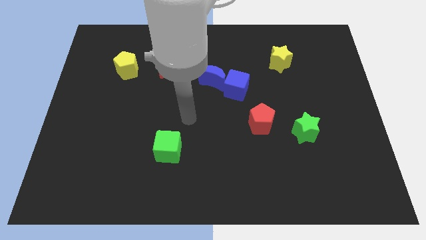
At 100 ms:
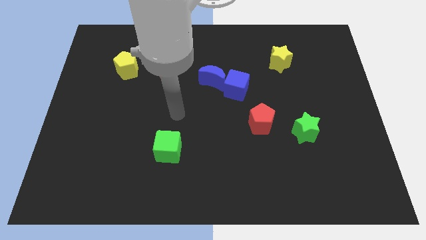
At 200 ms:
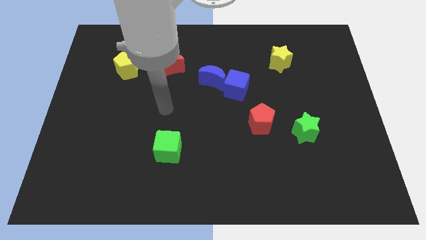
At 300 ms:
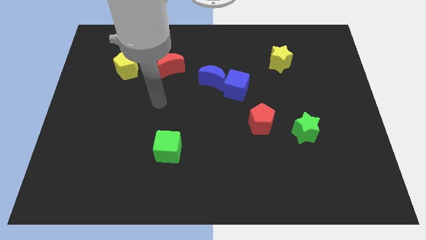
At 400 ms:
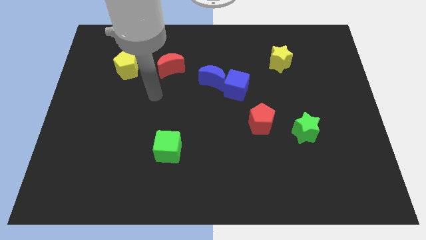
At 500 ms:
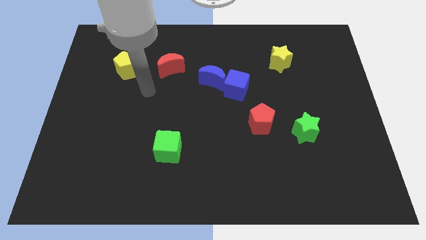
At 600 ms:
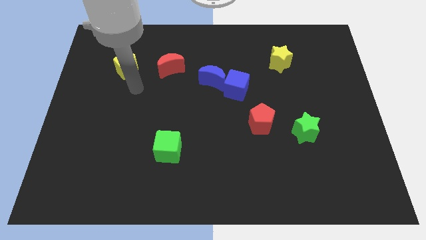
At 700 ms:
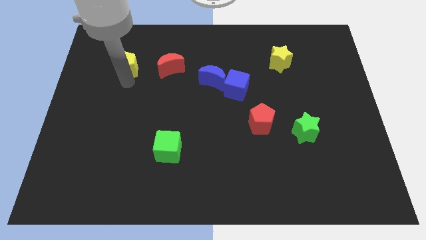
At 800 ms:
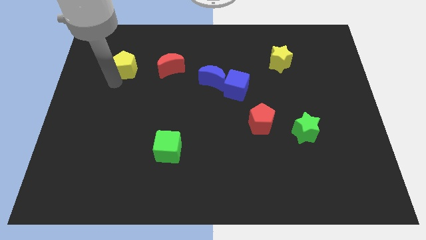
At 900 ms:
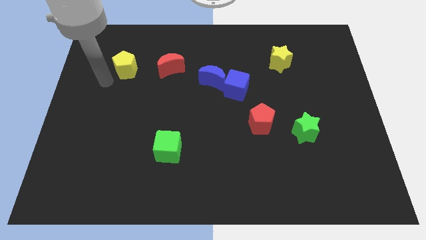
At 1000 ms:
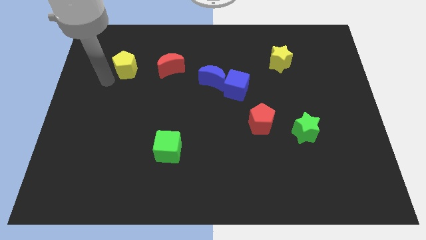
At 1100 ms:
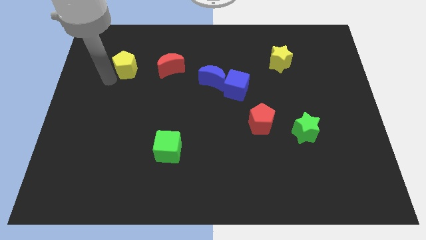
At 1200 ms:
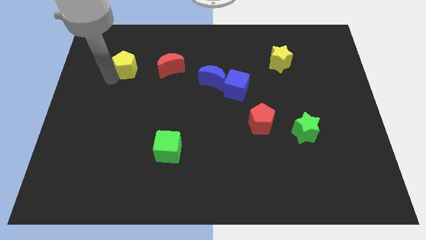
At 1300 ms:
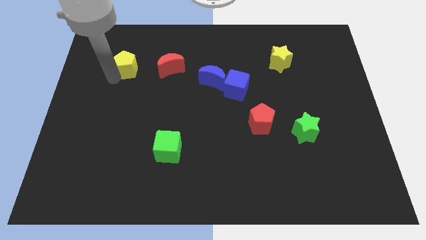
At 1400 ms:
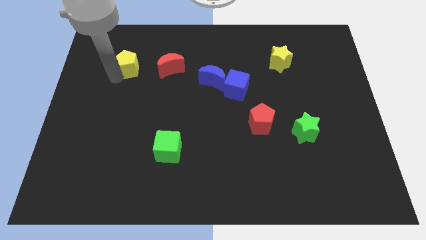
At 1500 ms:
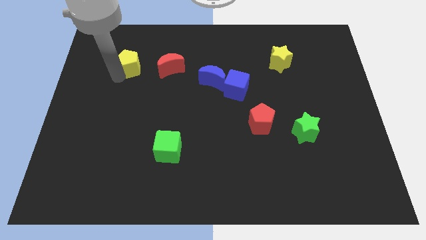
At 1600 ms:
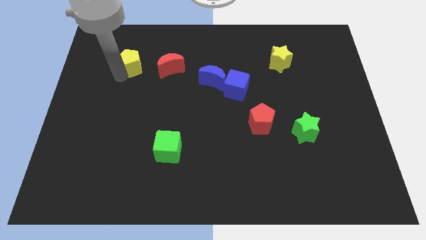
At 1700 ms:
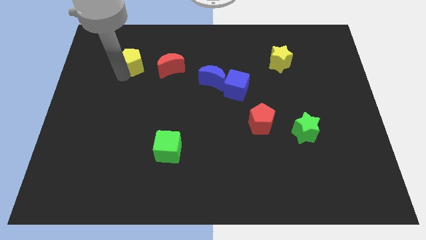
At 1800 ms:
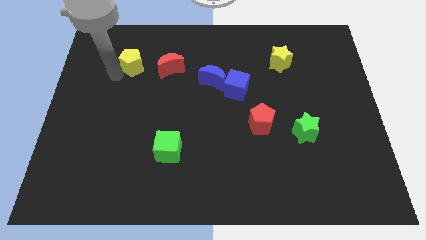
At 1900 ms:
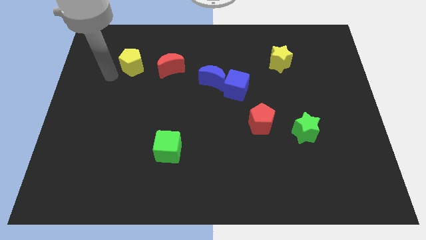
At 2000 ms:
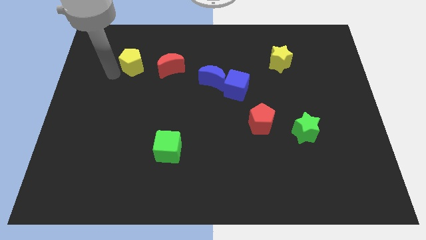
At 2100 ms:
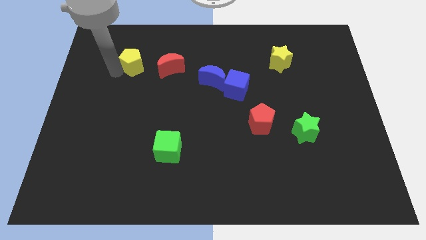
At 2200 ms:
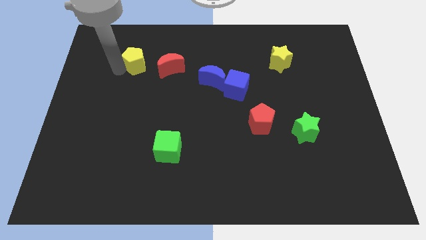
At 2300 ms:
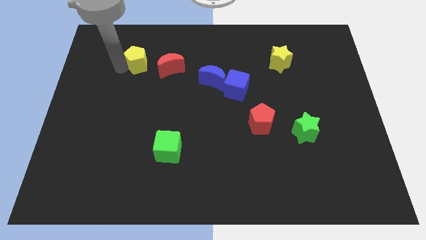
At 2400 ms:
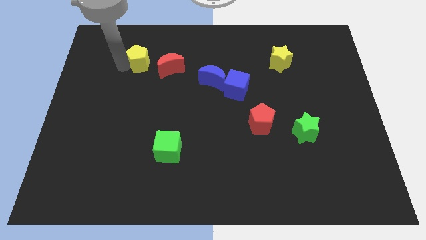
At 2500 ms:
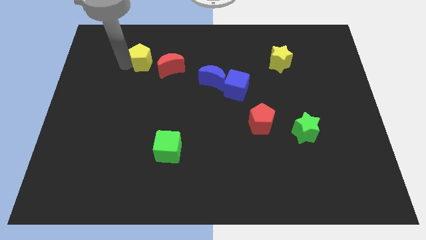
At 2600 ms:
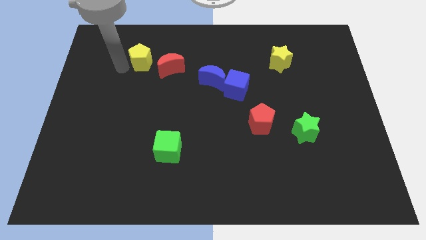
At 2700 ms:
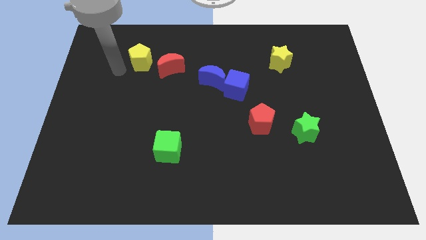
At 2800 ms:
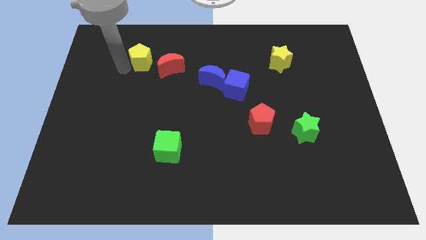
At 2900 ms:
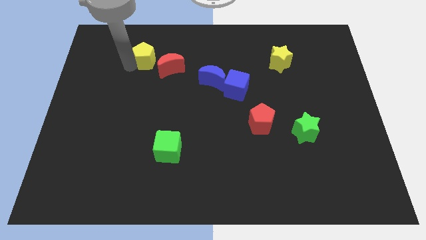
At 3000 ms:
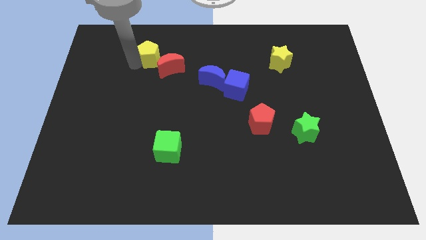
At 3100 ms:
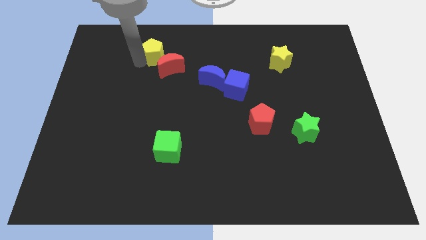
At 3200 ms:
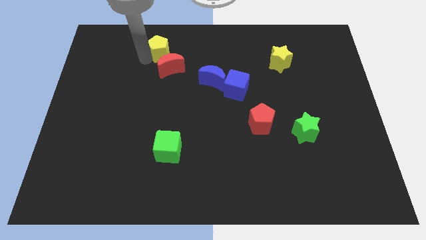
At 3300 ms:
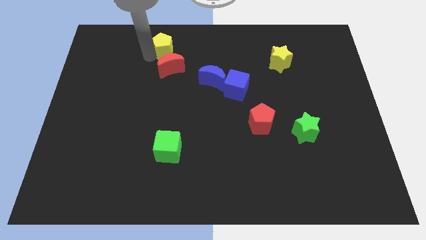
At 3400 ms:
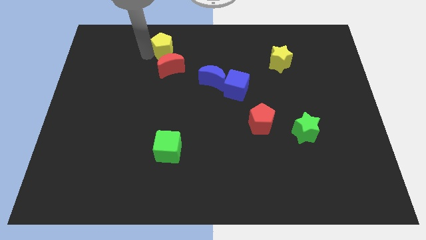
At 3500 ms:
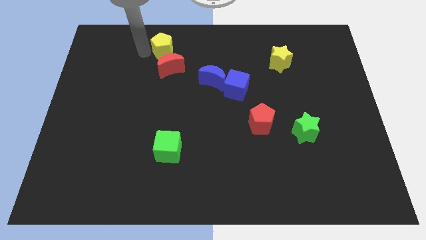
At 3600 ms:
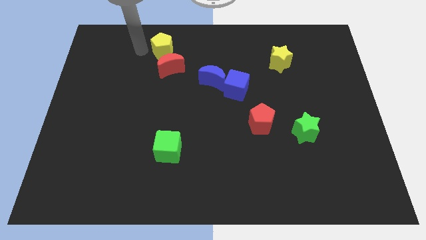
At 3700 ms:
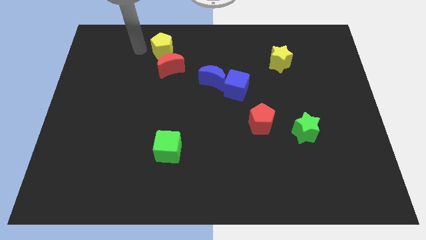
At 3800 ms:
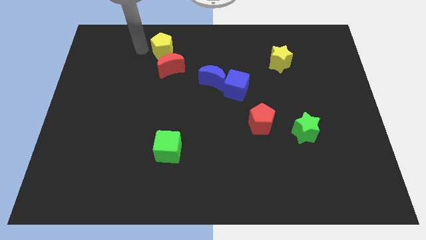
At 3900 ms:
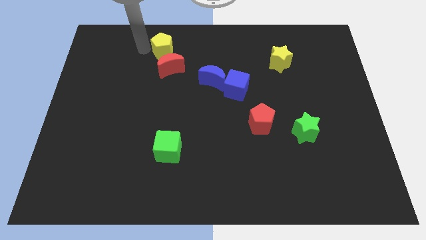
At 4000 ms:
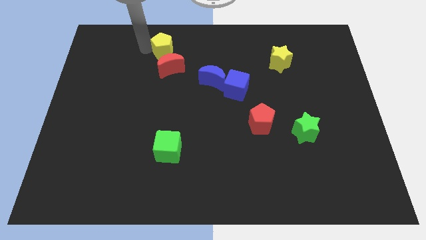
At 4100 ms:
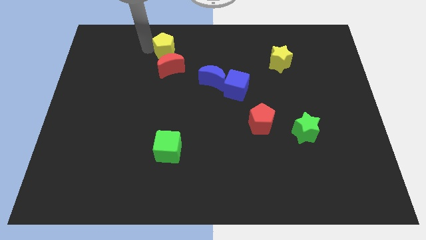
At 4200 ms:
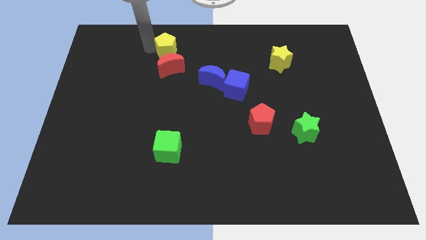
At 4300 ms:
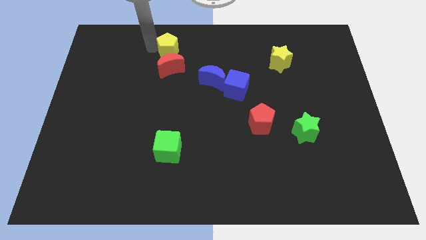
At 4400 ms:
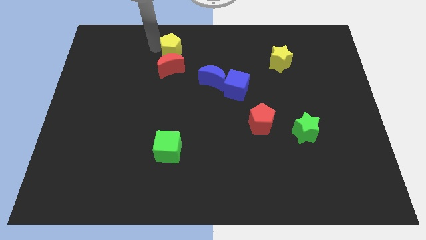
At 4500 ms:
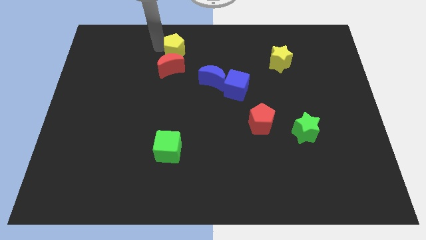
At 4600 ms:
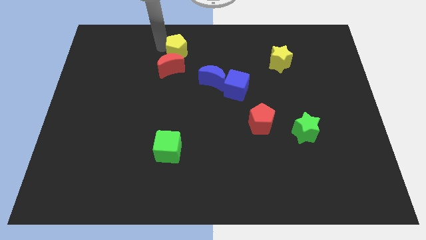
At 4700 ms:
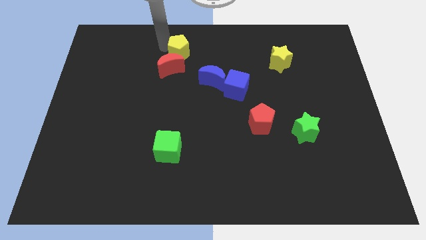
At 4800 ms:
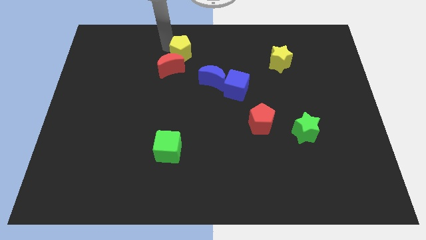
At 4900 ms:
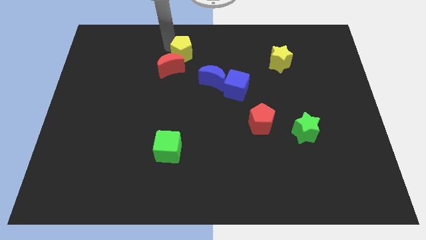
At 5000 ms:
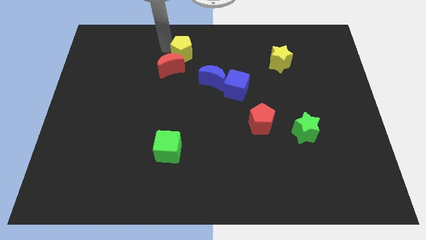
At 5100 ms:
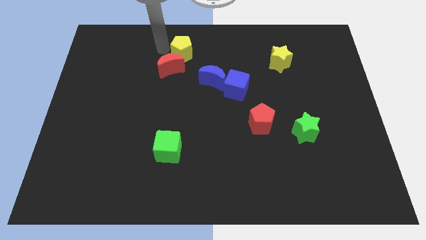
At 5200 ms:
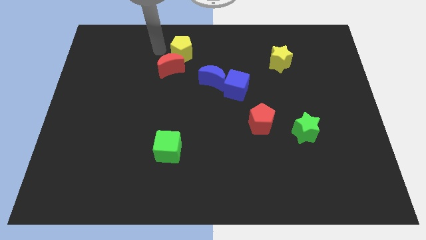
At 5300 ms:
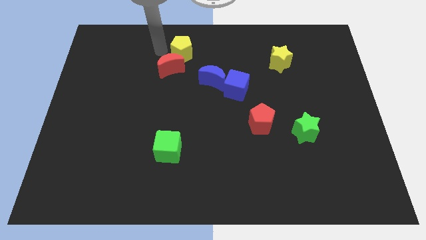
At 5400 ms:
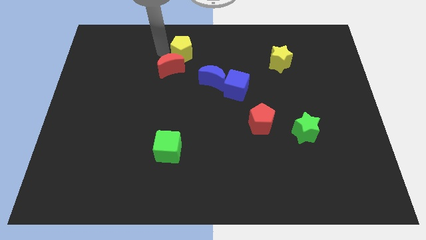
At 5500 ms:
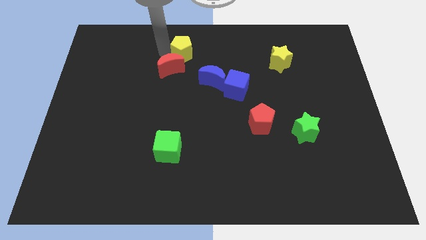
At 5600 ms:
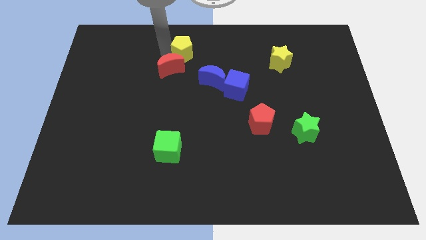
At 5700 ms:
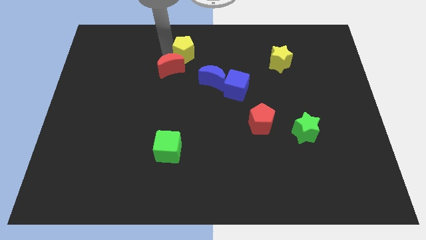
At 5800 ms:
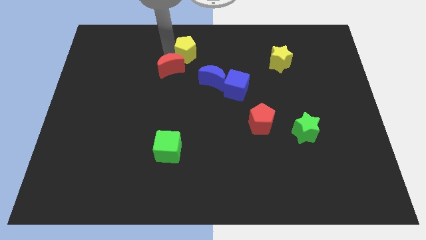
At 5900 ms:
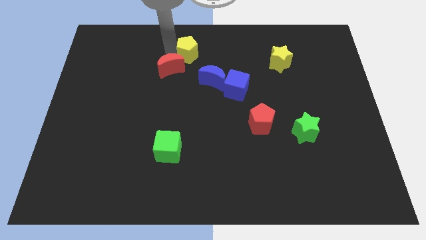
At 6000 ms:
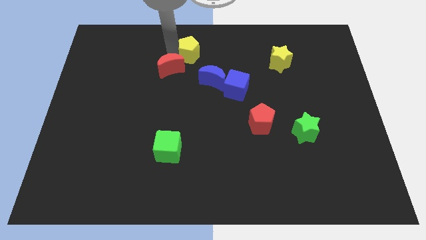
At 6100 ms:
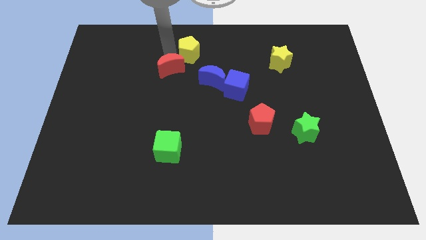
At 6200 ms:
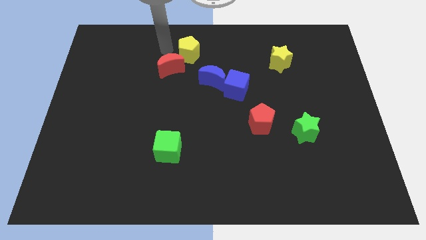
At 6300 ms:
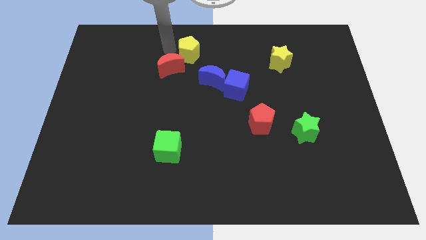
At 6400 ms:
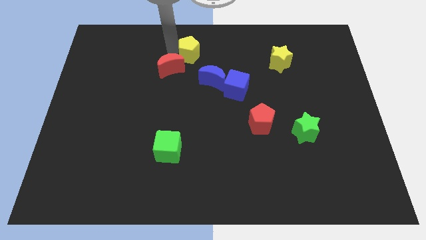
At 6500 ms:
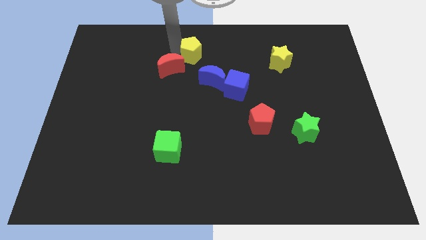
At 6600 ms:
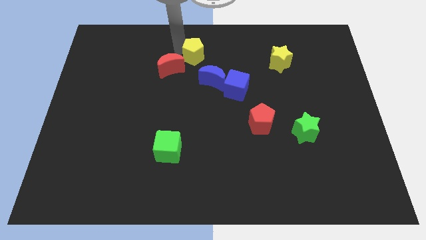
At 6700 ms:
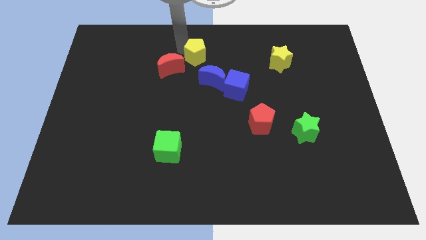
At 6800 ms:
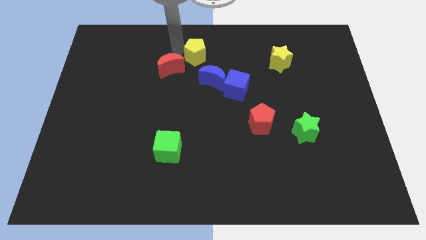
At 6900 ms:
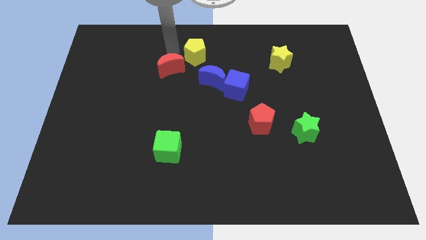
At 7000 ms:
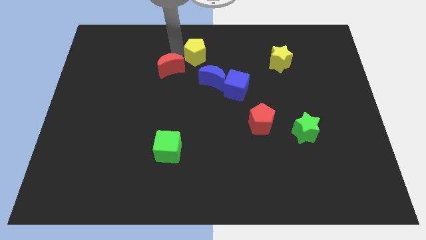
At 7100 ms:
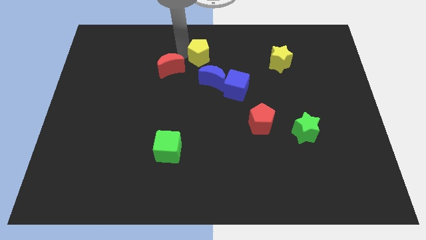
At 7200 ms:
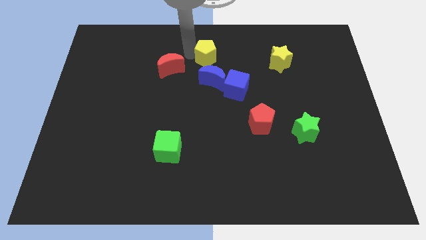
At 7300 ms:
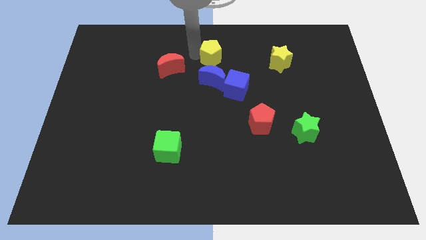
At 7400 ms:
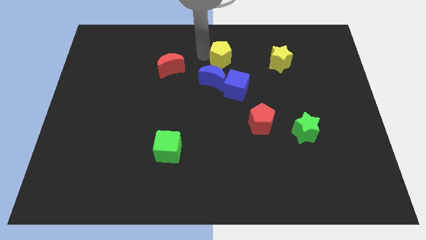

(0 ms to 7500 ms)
push the yellow pentagon left of the yellow star

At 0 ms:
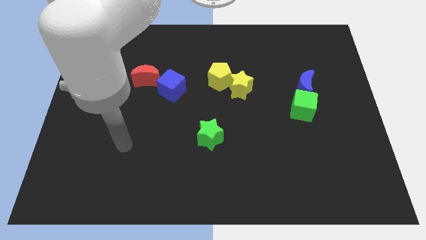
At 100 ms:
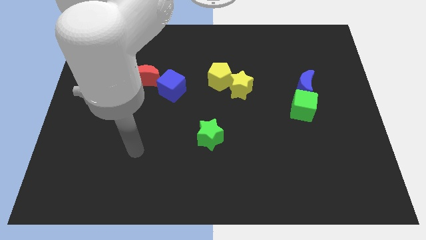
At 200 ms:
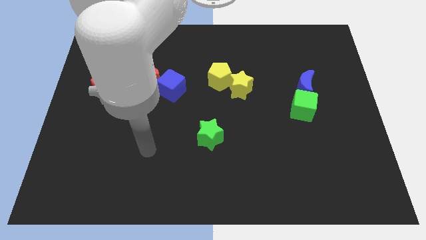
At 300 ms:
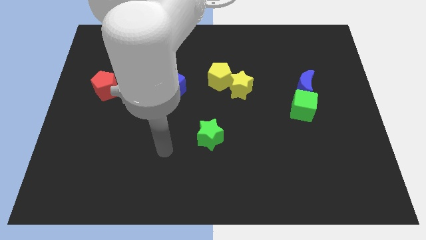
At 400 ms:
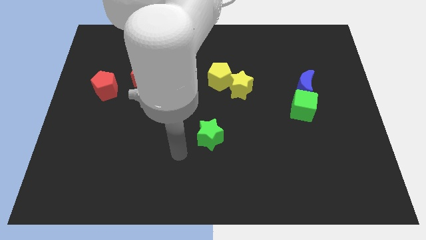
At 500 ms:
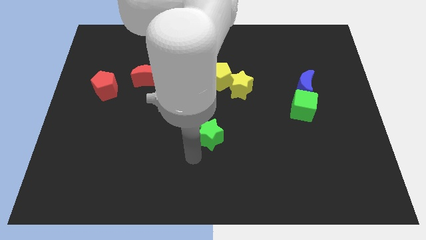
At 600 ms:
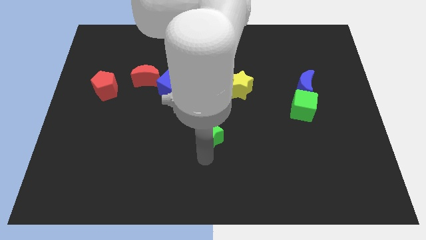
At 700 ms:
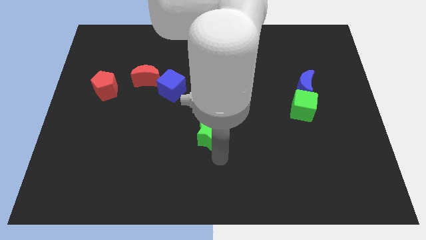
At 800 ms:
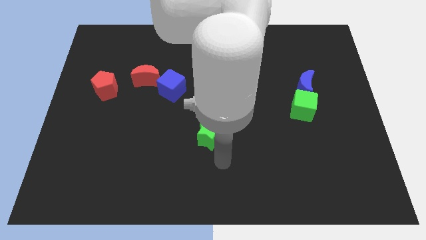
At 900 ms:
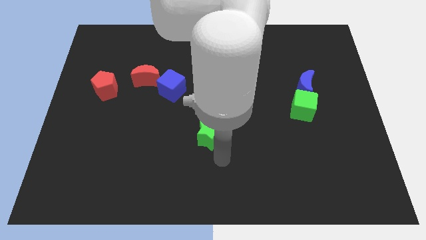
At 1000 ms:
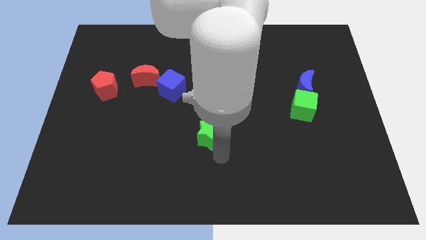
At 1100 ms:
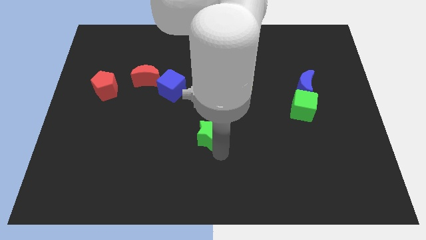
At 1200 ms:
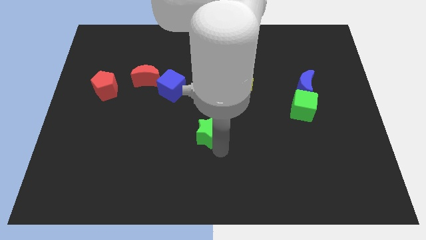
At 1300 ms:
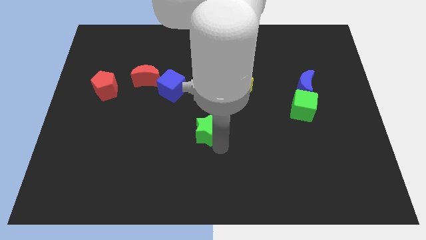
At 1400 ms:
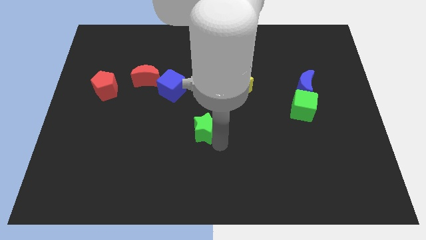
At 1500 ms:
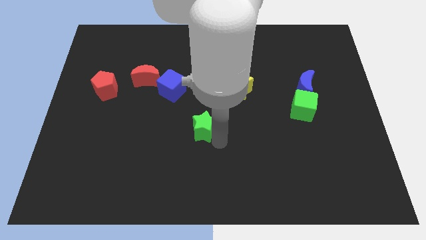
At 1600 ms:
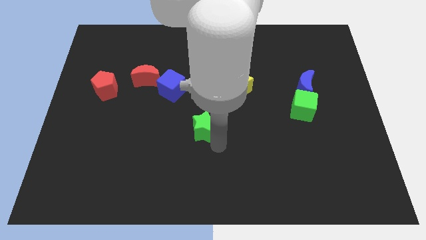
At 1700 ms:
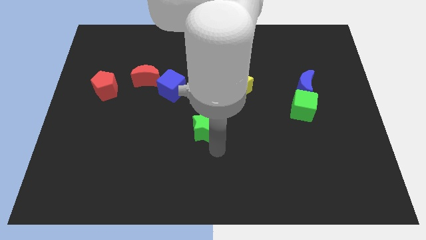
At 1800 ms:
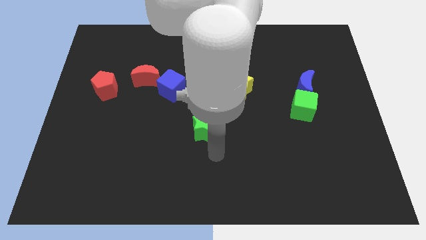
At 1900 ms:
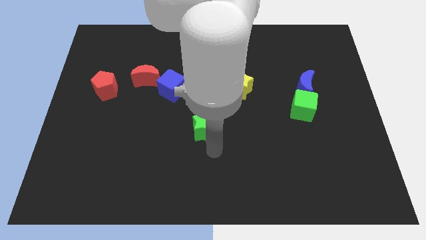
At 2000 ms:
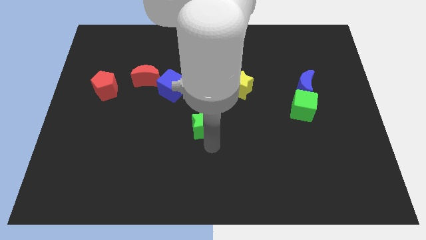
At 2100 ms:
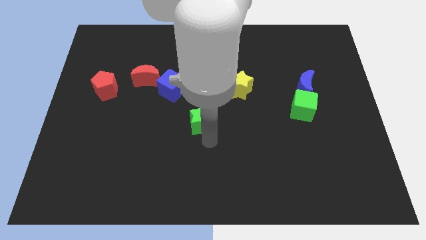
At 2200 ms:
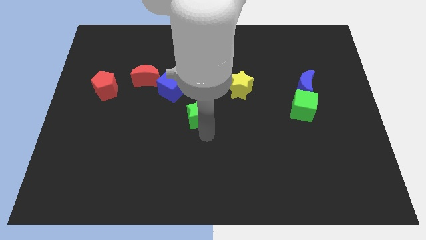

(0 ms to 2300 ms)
push the green star to the bottom right side of the blue cube
